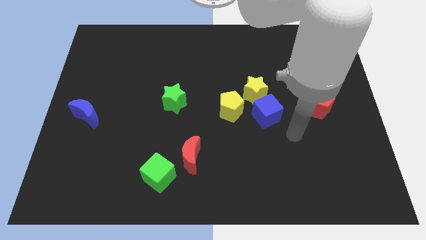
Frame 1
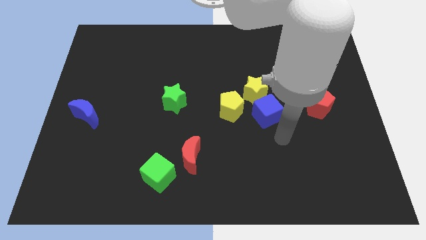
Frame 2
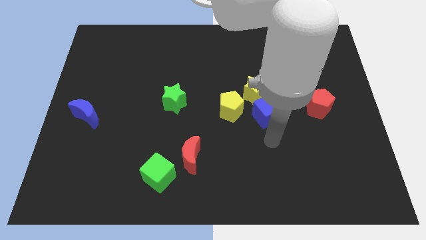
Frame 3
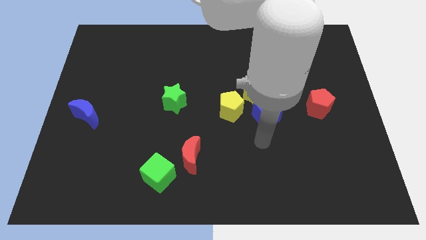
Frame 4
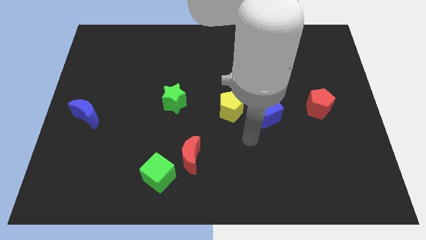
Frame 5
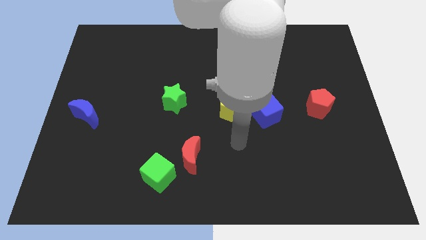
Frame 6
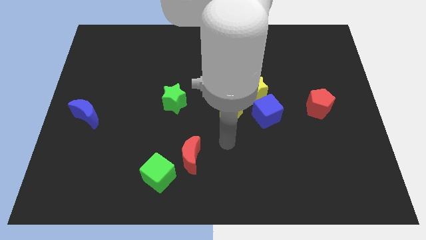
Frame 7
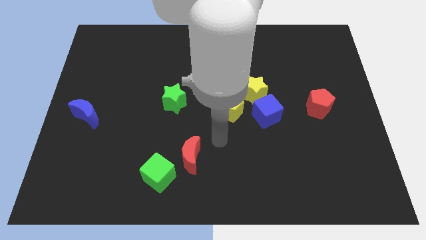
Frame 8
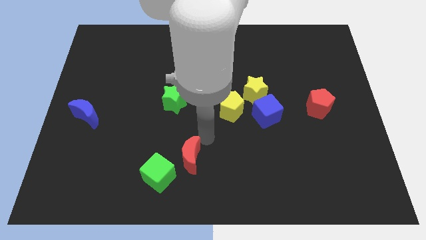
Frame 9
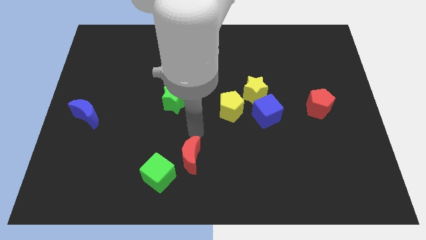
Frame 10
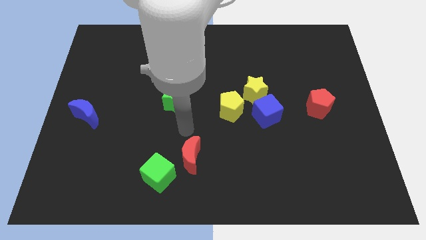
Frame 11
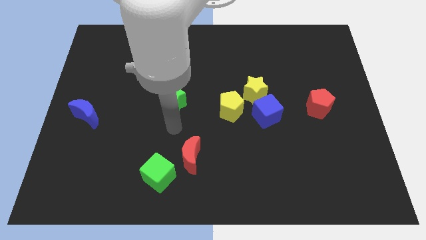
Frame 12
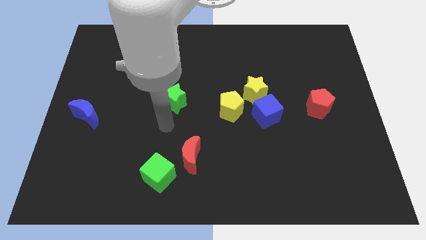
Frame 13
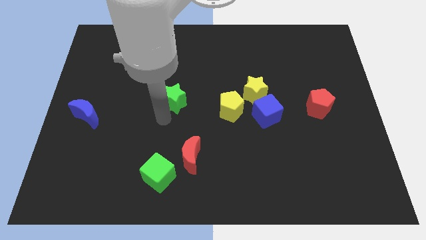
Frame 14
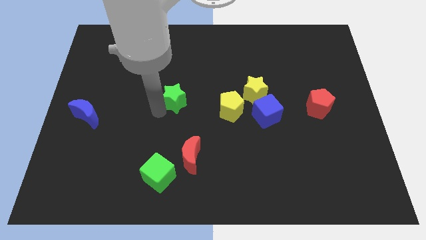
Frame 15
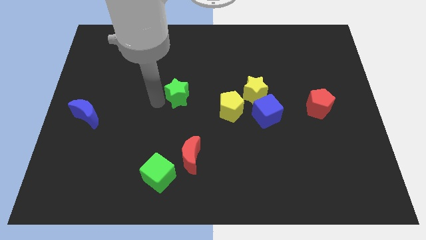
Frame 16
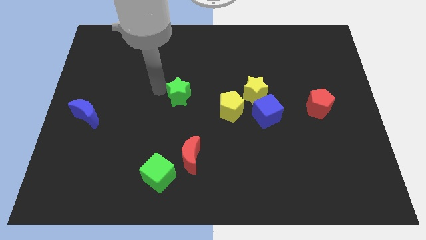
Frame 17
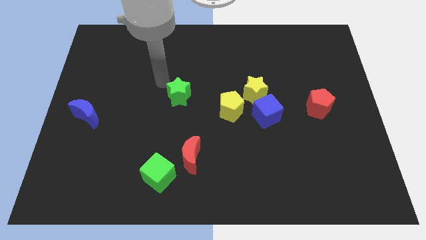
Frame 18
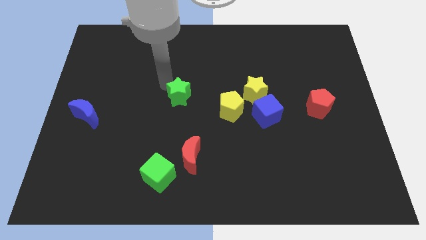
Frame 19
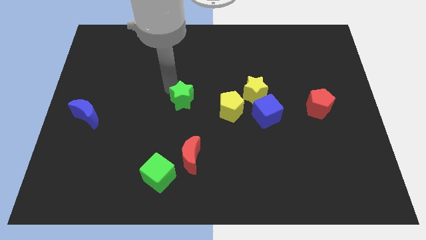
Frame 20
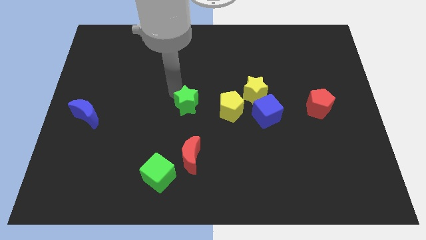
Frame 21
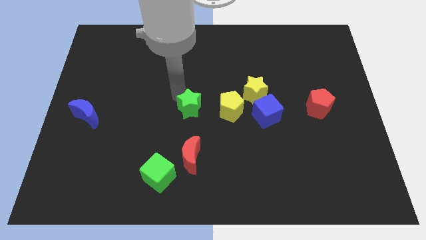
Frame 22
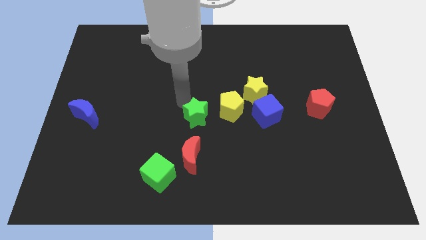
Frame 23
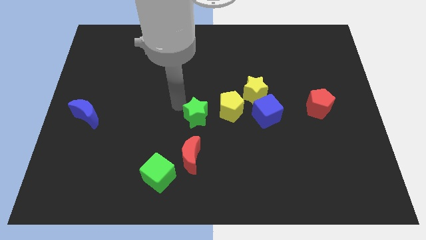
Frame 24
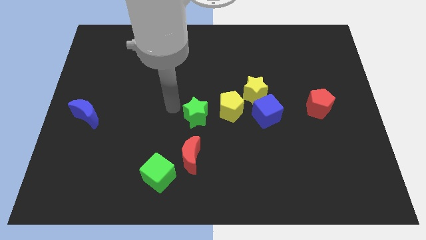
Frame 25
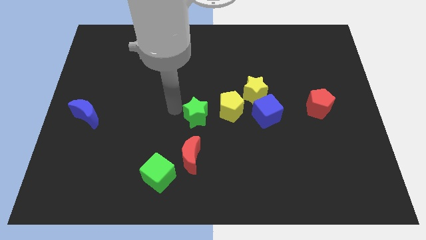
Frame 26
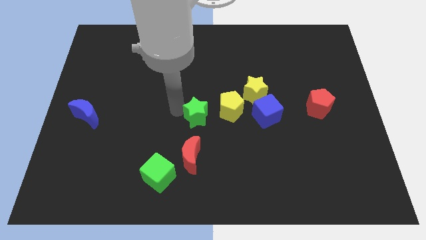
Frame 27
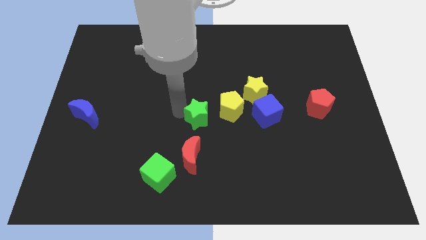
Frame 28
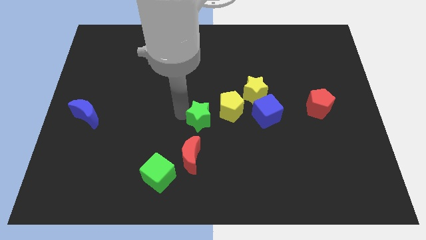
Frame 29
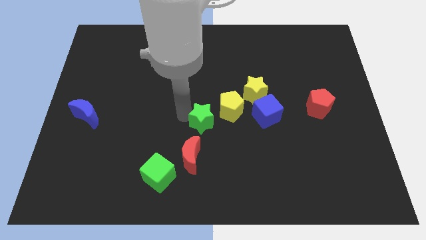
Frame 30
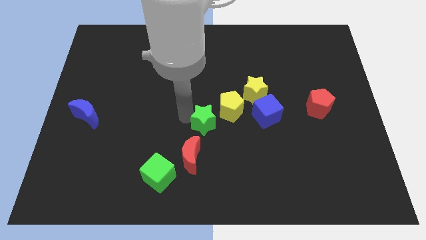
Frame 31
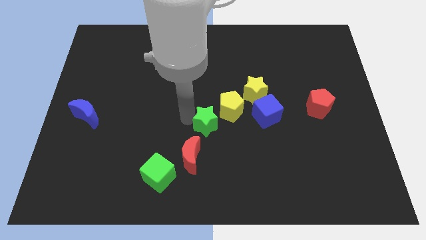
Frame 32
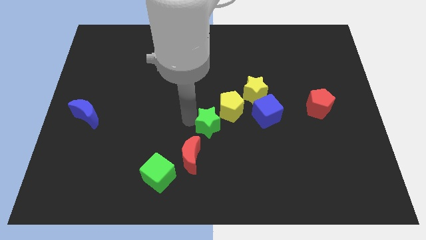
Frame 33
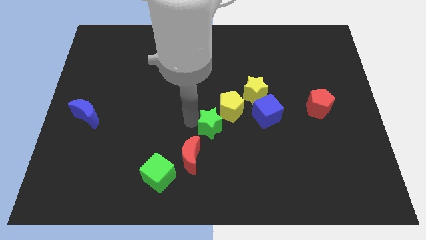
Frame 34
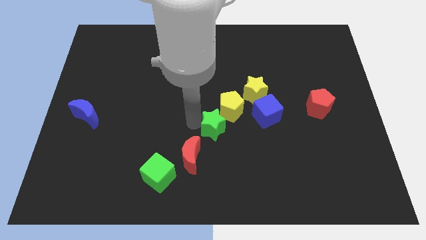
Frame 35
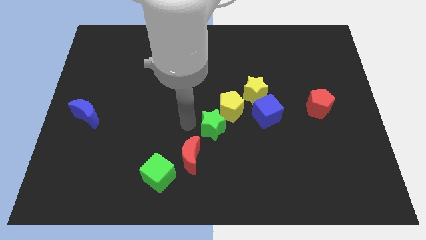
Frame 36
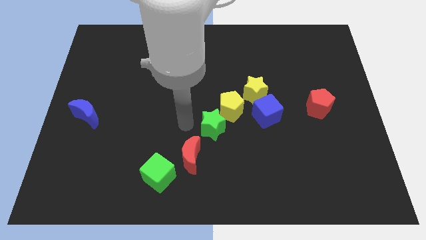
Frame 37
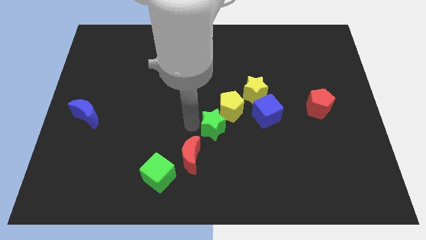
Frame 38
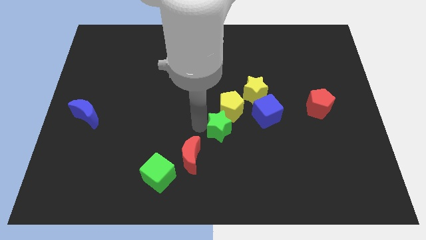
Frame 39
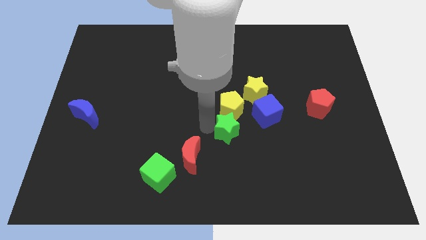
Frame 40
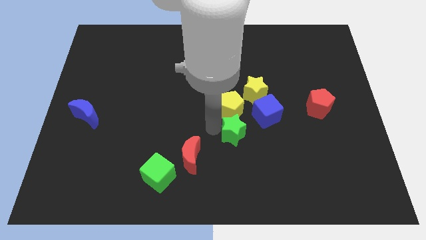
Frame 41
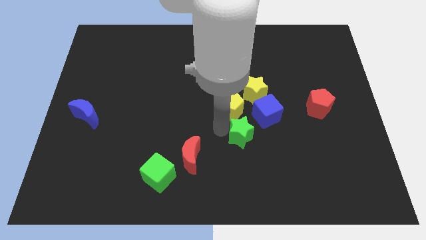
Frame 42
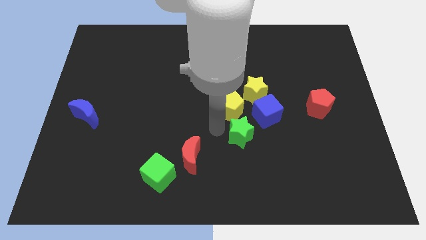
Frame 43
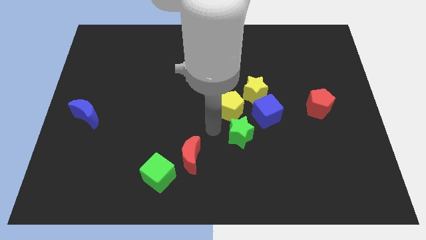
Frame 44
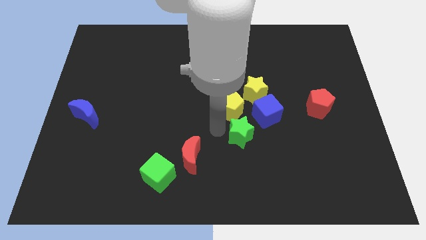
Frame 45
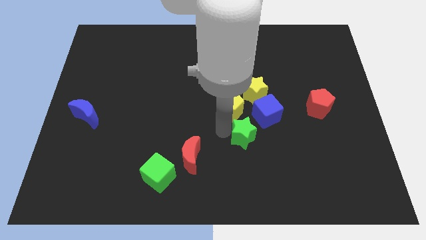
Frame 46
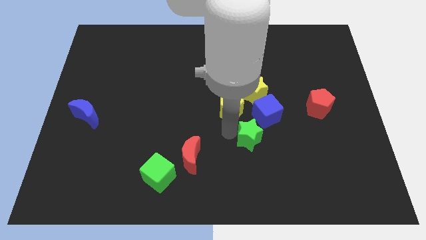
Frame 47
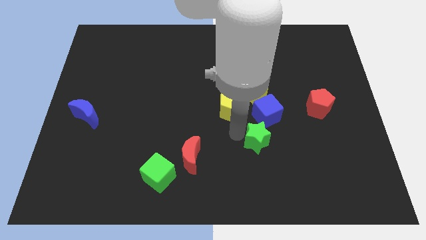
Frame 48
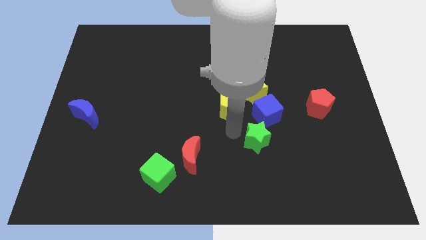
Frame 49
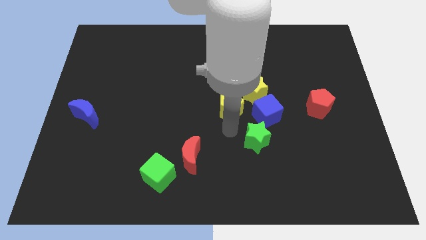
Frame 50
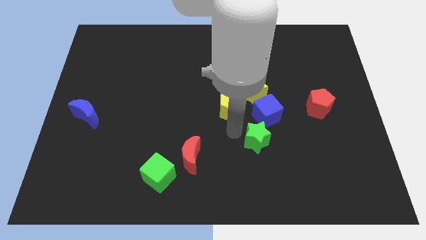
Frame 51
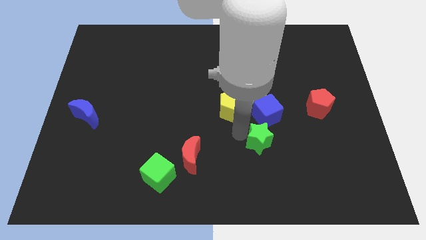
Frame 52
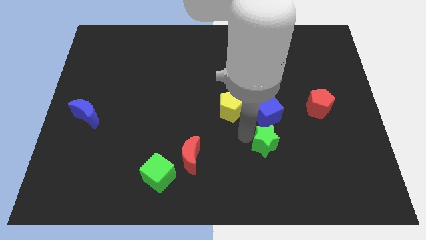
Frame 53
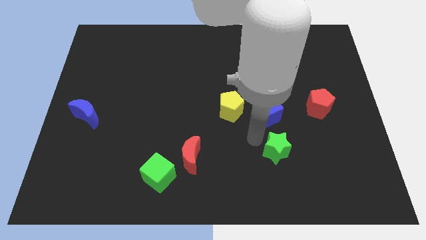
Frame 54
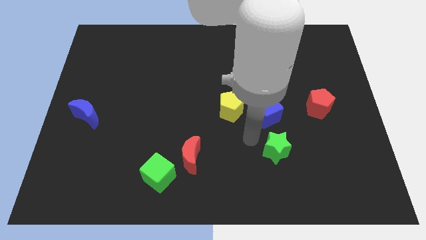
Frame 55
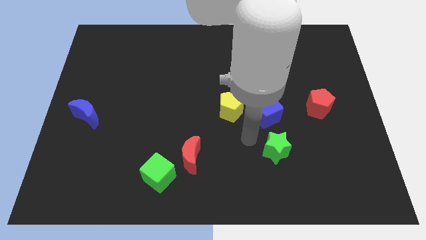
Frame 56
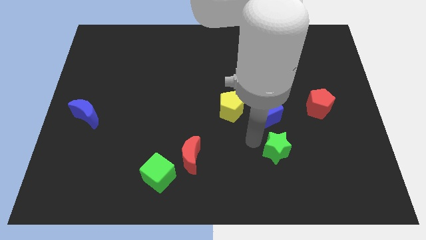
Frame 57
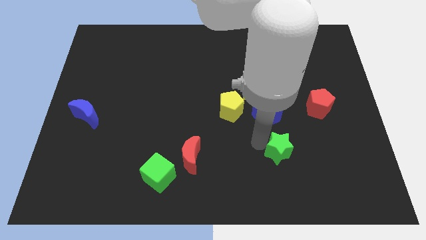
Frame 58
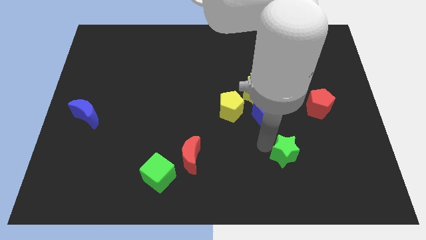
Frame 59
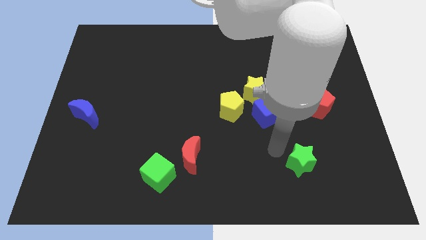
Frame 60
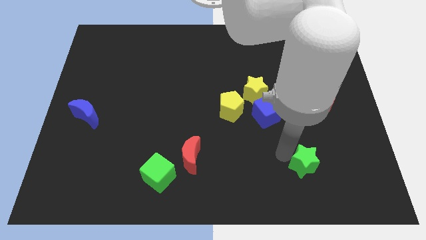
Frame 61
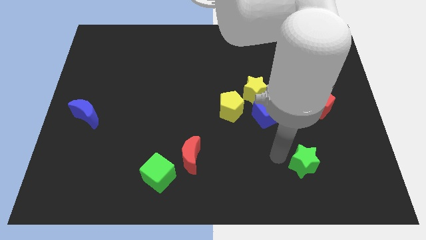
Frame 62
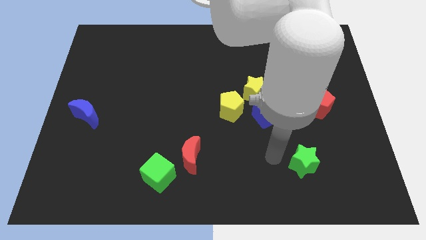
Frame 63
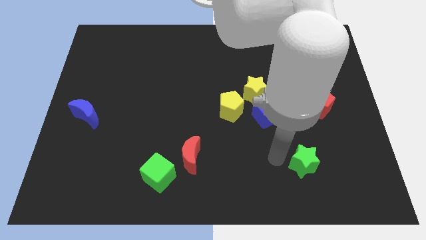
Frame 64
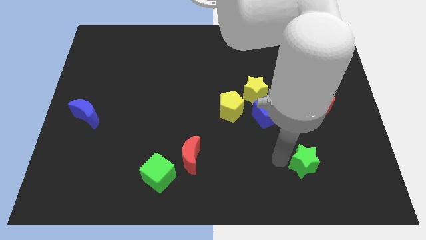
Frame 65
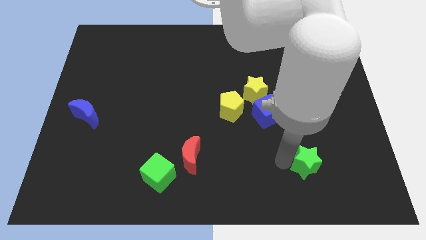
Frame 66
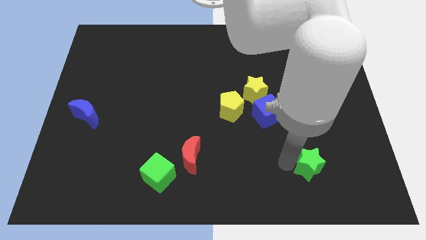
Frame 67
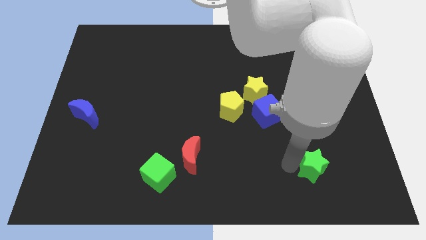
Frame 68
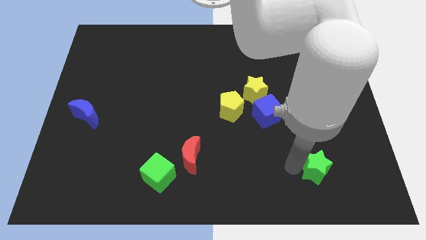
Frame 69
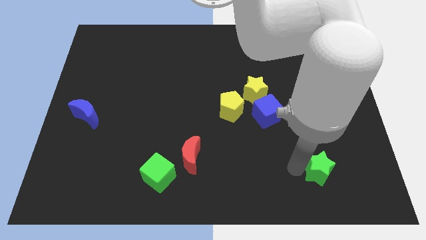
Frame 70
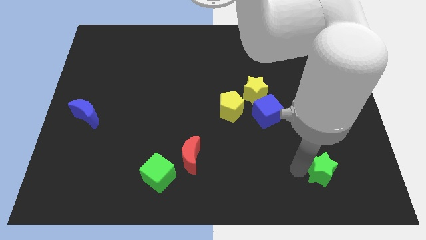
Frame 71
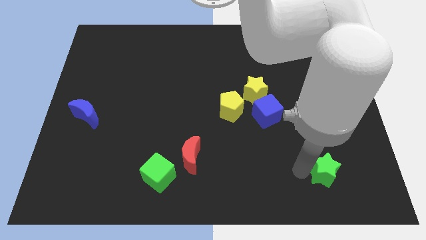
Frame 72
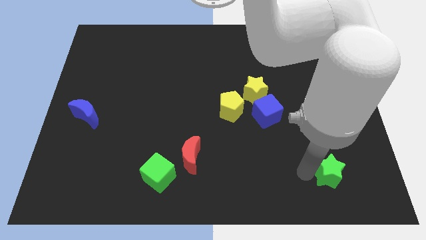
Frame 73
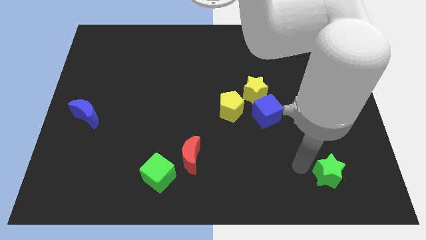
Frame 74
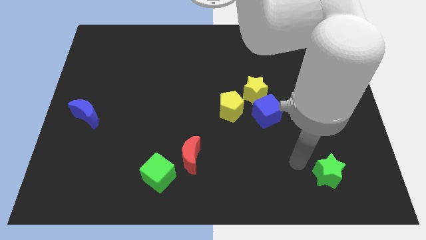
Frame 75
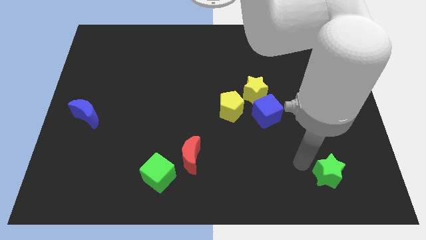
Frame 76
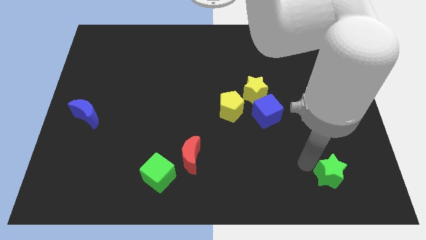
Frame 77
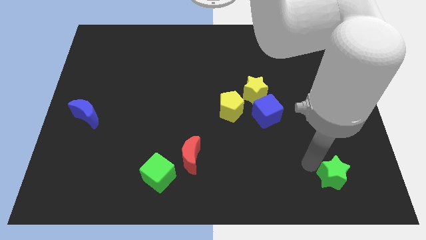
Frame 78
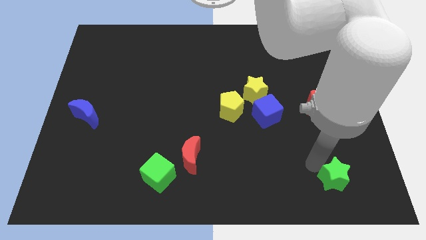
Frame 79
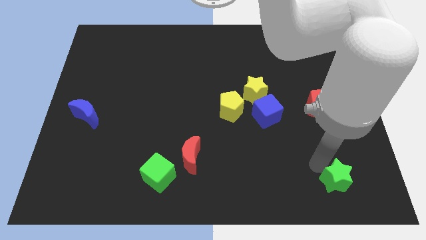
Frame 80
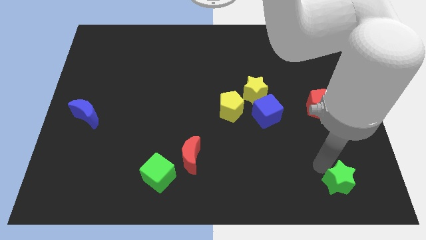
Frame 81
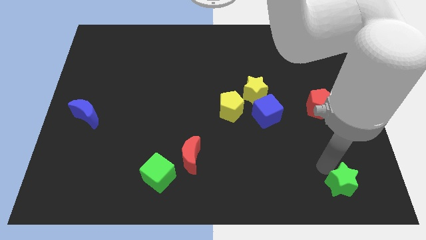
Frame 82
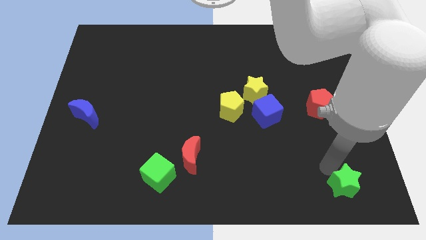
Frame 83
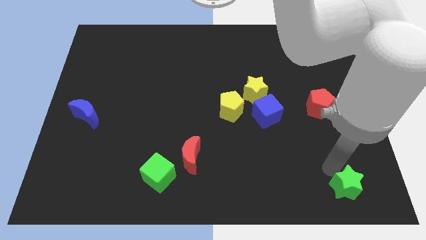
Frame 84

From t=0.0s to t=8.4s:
push the green star to the bottom right corner
